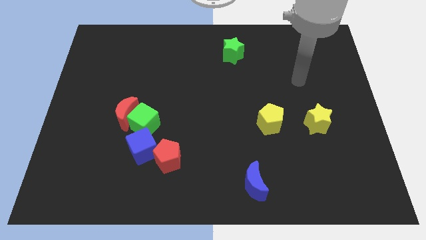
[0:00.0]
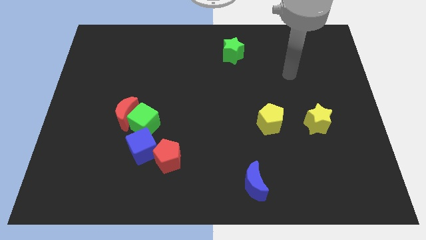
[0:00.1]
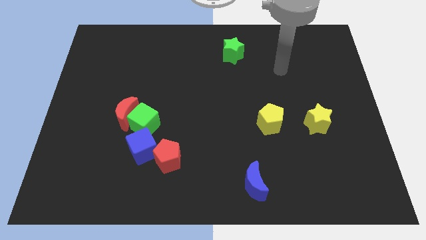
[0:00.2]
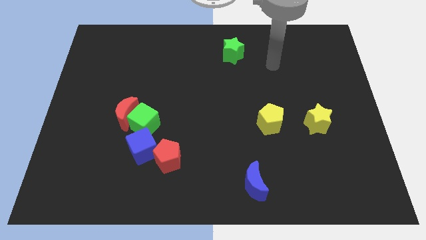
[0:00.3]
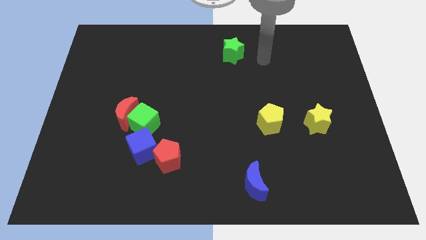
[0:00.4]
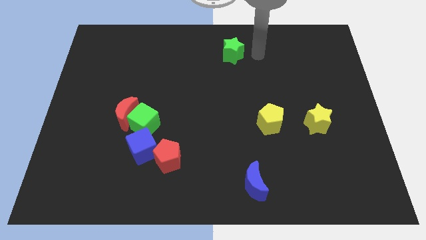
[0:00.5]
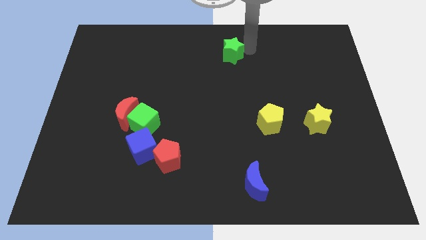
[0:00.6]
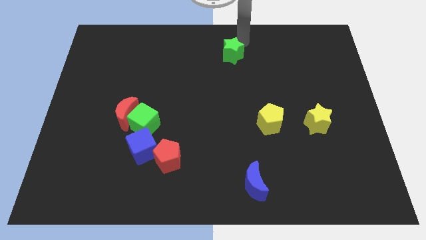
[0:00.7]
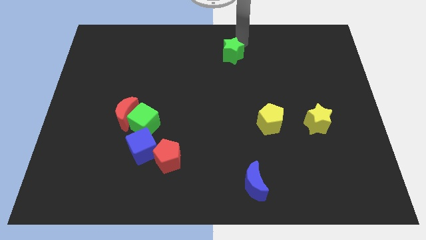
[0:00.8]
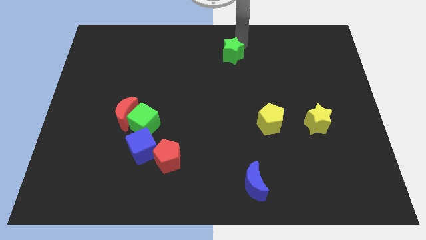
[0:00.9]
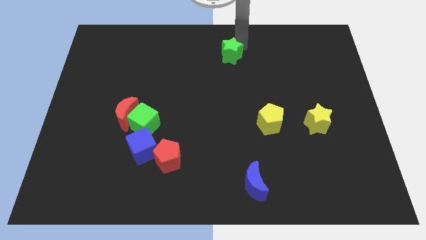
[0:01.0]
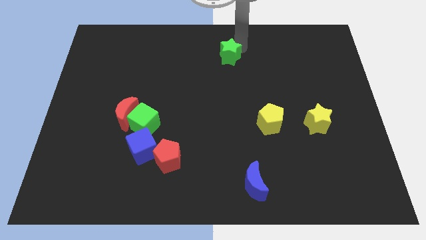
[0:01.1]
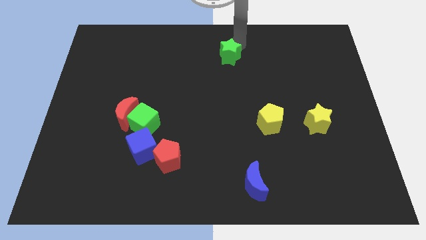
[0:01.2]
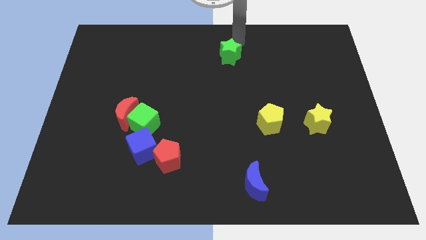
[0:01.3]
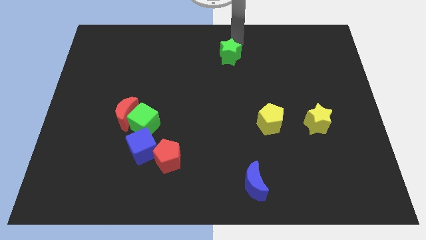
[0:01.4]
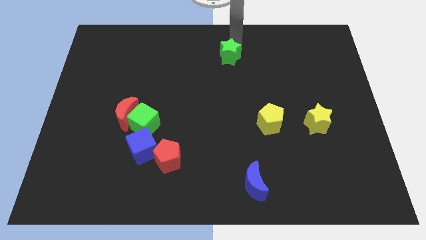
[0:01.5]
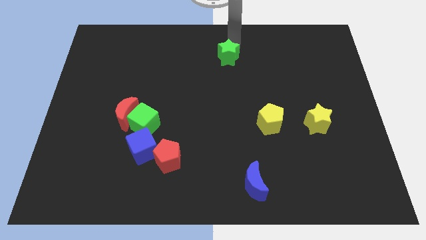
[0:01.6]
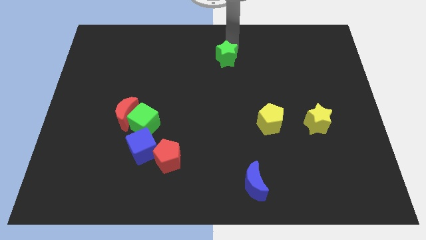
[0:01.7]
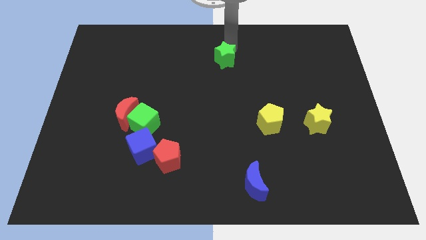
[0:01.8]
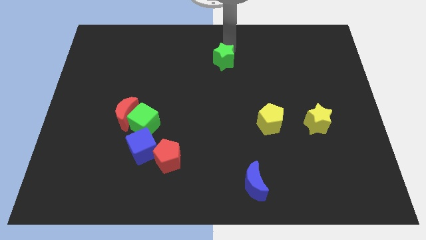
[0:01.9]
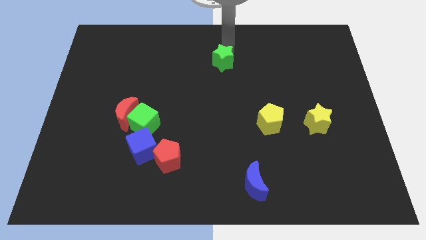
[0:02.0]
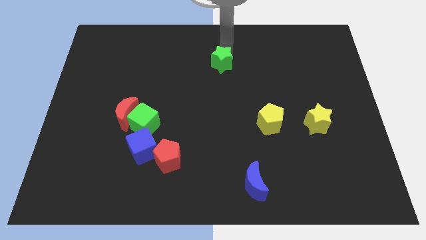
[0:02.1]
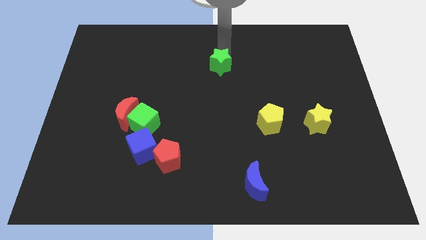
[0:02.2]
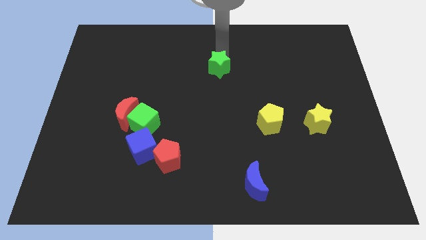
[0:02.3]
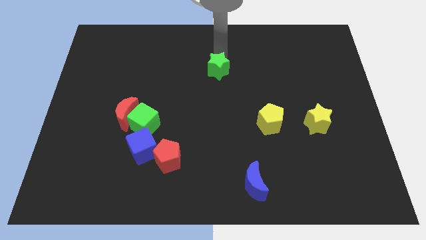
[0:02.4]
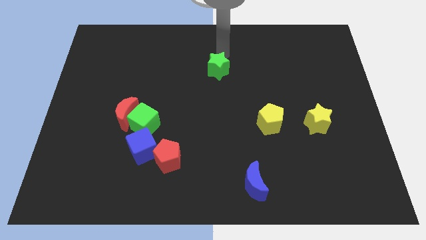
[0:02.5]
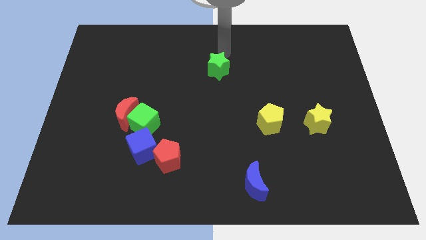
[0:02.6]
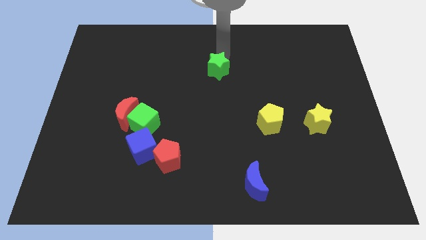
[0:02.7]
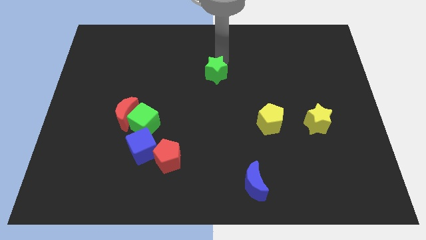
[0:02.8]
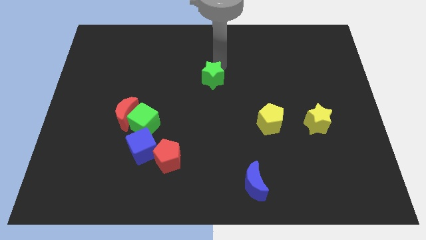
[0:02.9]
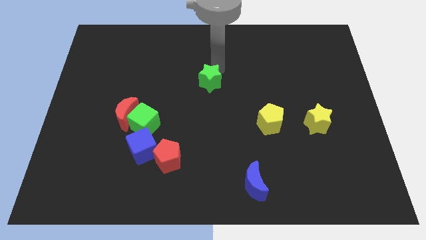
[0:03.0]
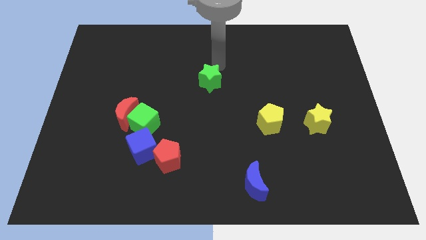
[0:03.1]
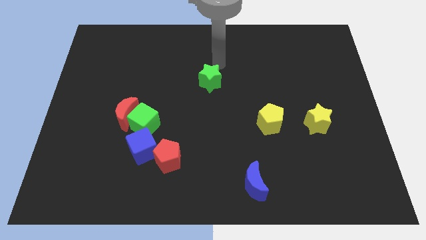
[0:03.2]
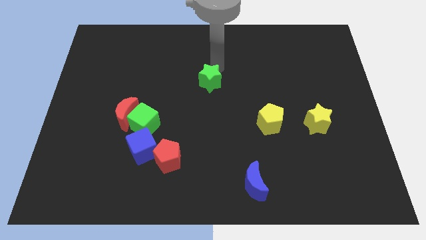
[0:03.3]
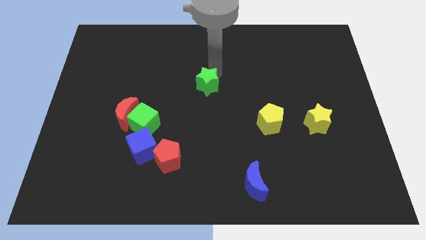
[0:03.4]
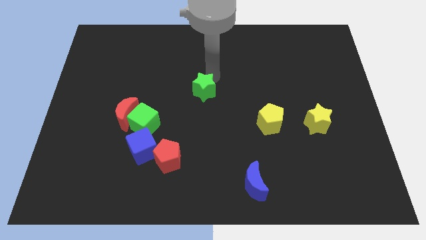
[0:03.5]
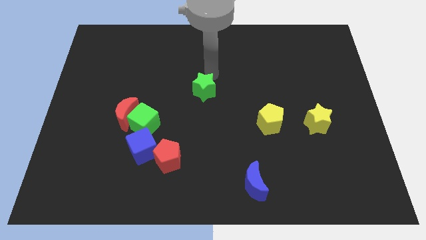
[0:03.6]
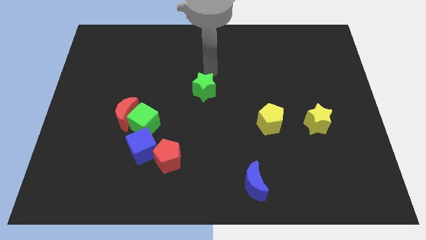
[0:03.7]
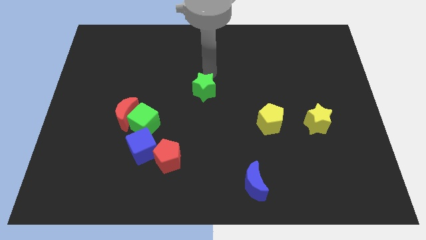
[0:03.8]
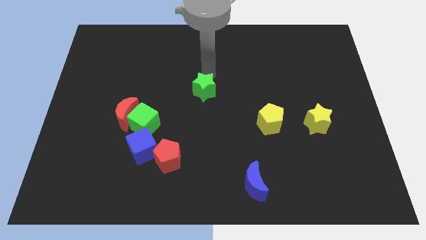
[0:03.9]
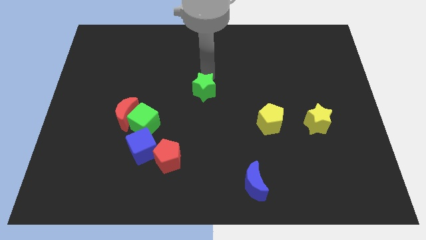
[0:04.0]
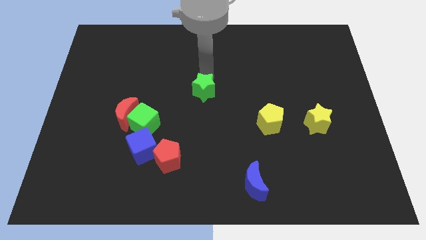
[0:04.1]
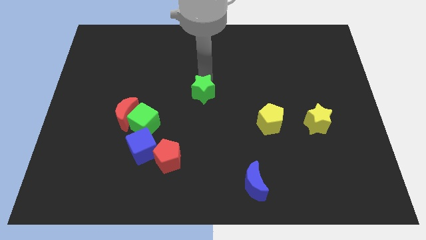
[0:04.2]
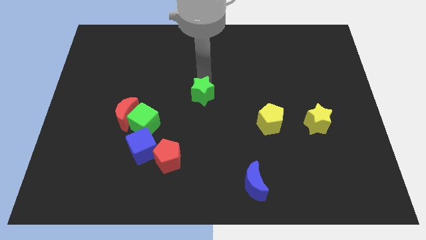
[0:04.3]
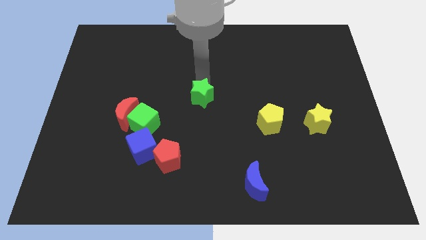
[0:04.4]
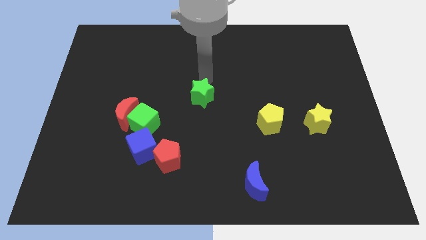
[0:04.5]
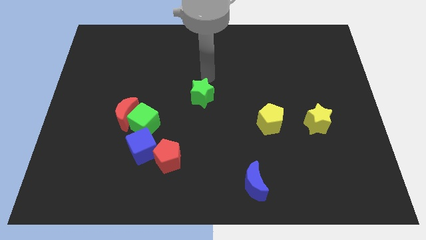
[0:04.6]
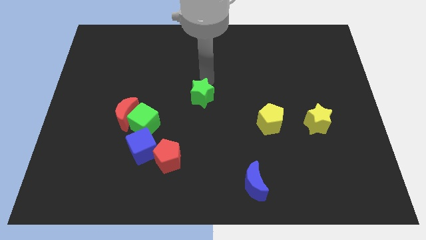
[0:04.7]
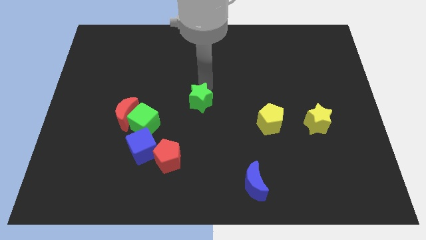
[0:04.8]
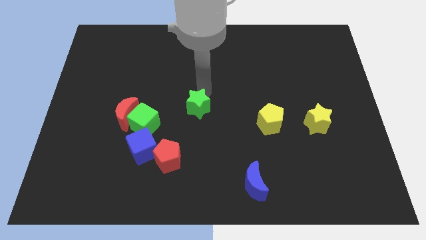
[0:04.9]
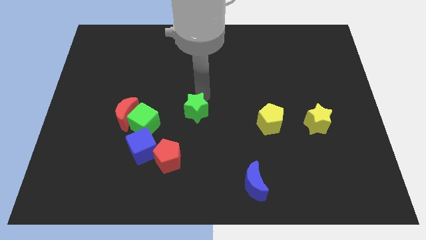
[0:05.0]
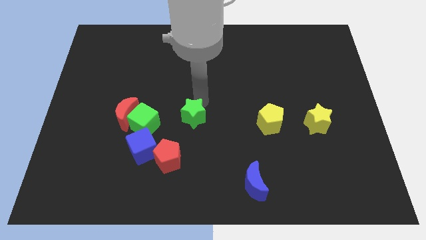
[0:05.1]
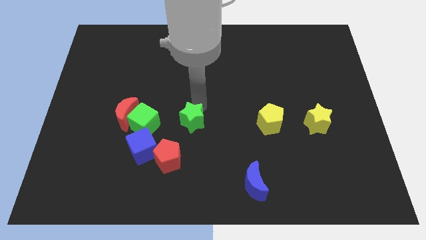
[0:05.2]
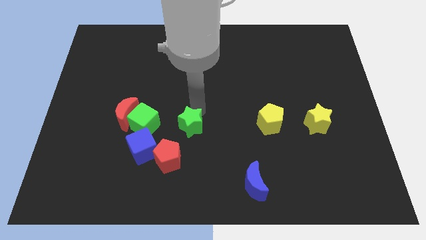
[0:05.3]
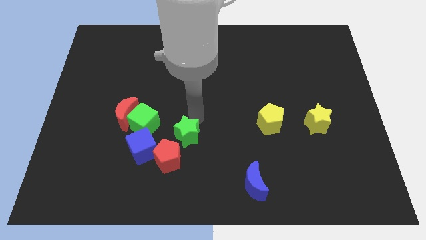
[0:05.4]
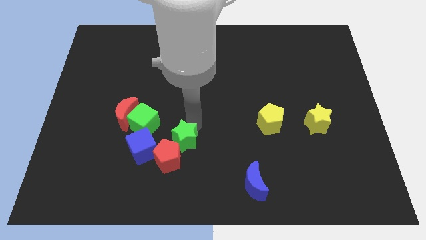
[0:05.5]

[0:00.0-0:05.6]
slide the green star close to the red pentagon

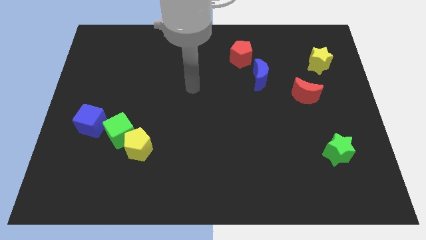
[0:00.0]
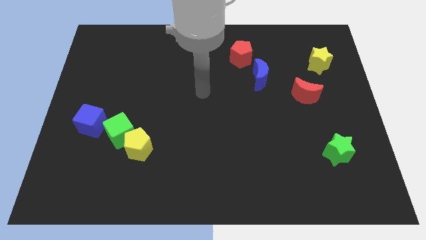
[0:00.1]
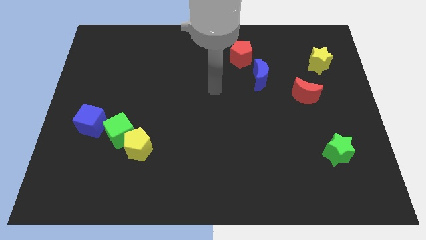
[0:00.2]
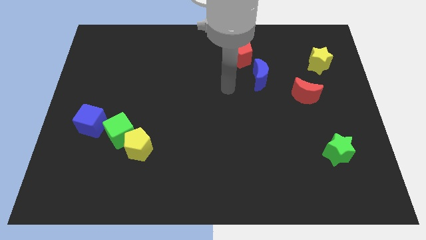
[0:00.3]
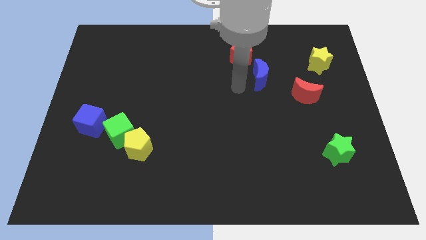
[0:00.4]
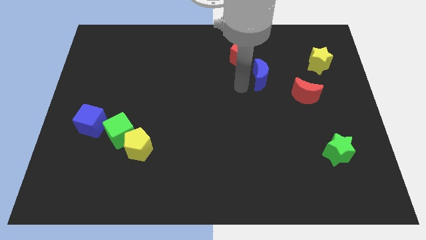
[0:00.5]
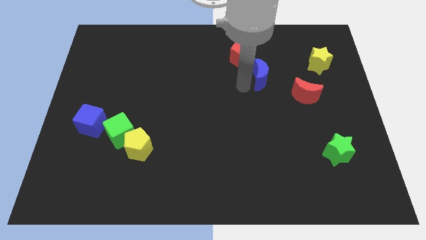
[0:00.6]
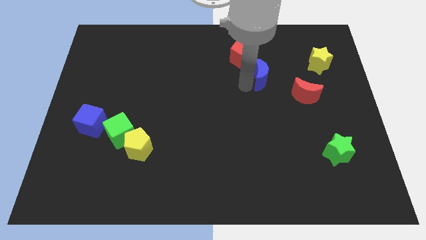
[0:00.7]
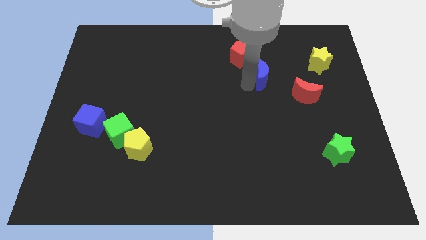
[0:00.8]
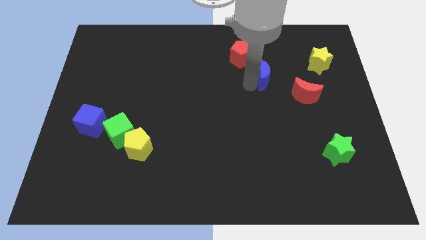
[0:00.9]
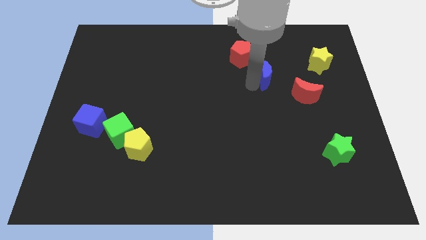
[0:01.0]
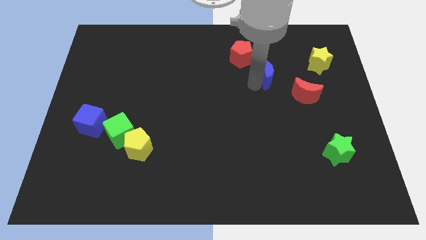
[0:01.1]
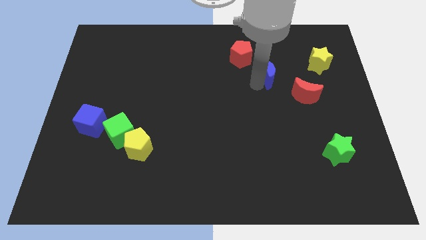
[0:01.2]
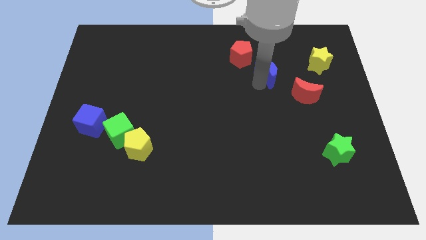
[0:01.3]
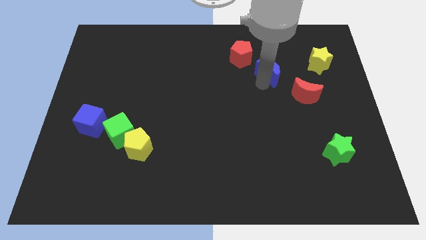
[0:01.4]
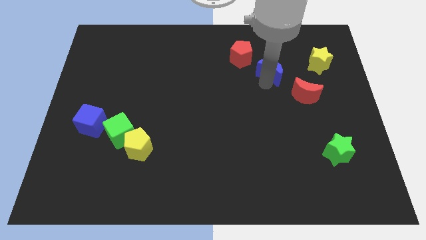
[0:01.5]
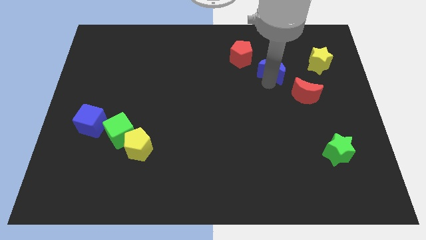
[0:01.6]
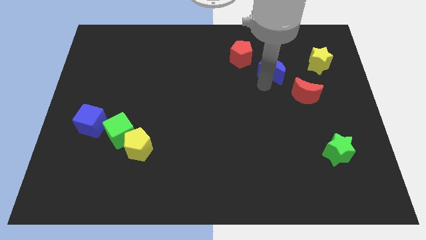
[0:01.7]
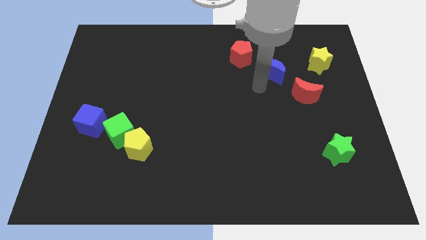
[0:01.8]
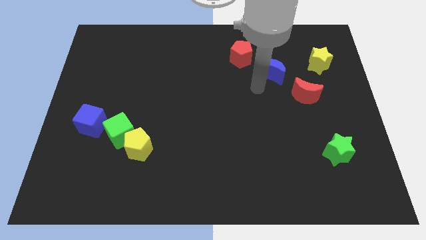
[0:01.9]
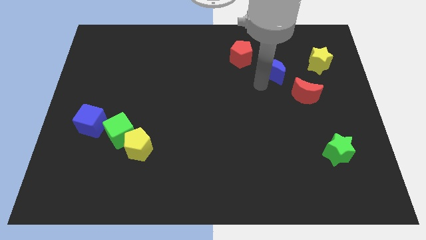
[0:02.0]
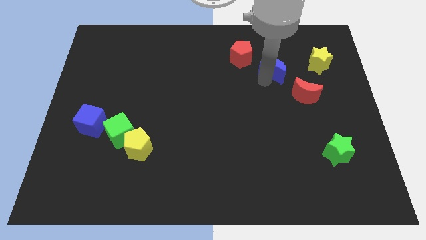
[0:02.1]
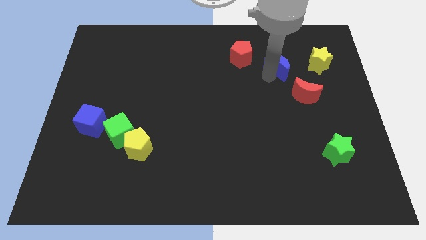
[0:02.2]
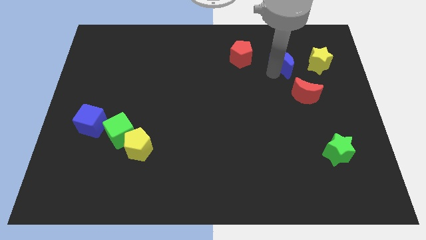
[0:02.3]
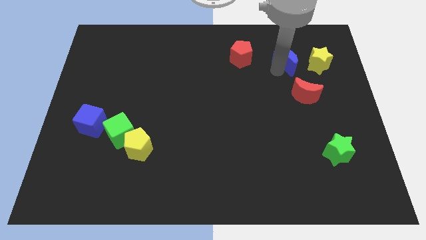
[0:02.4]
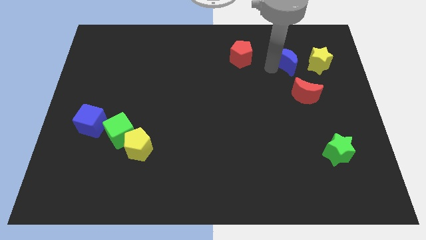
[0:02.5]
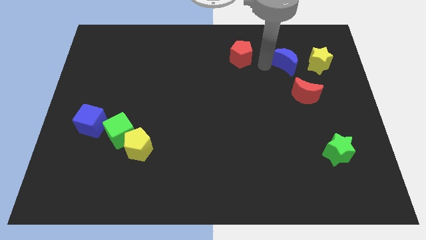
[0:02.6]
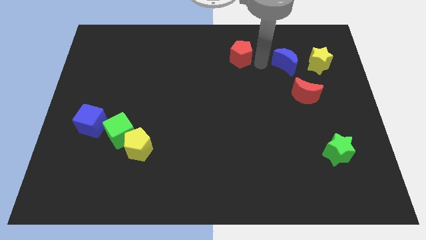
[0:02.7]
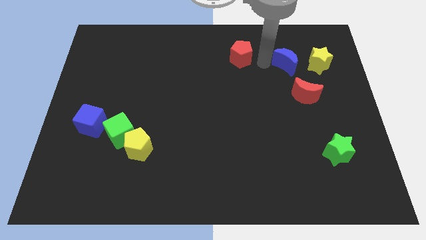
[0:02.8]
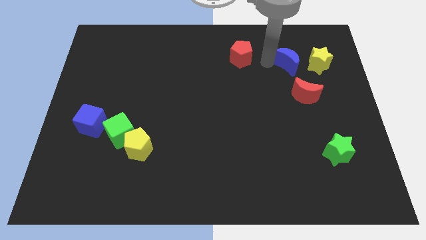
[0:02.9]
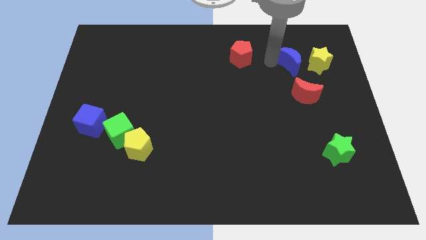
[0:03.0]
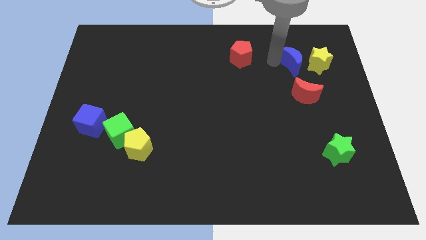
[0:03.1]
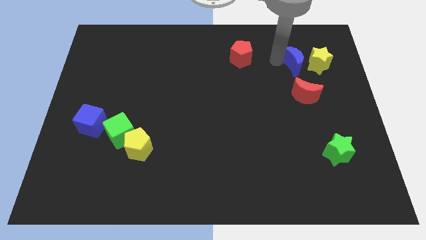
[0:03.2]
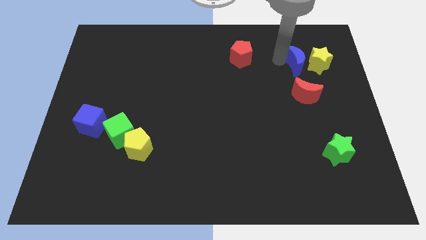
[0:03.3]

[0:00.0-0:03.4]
put the blue moon next to the yellow star
